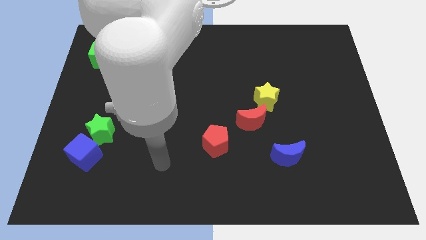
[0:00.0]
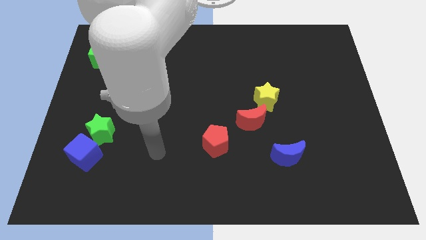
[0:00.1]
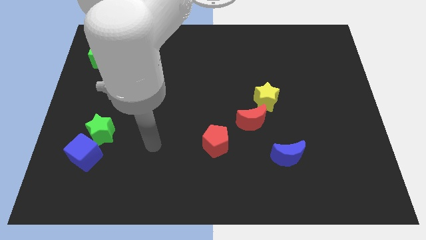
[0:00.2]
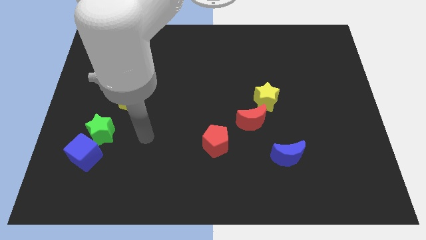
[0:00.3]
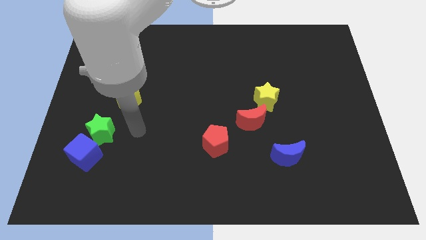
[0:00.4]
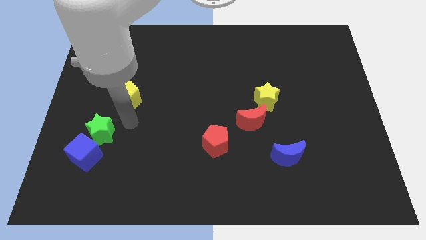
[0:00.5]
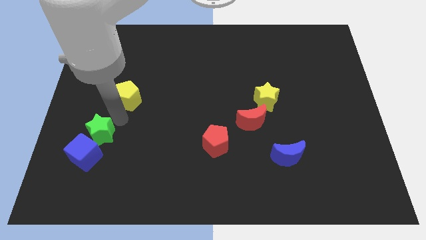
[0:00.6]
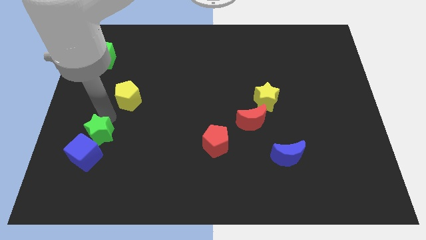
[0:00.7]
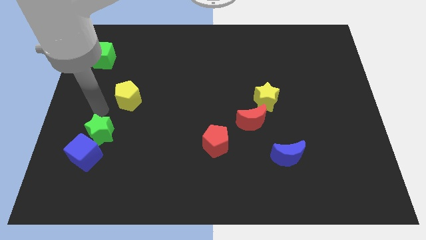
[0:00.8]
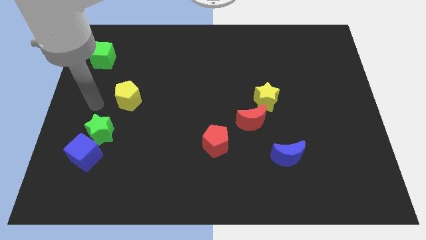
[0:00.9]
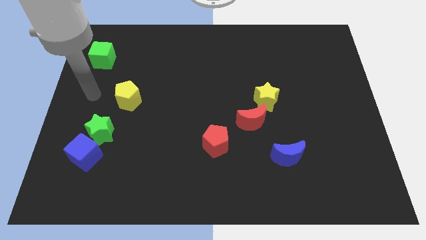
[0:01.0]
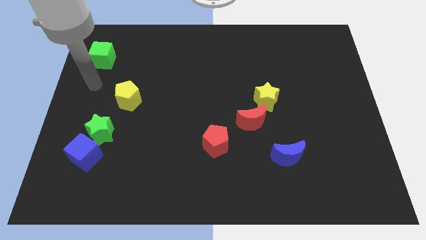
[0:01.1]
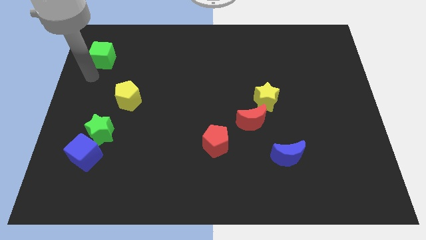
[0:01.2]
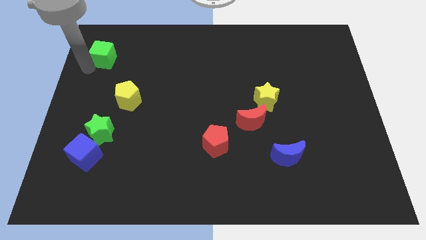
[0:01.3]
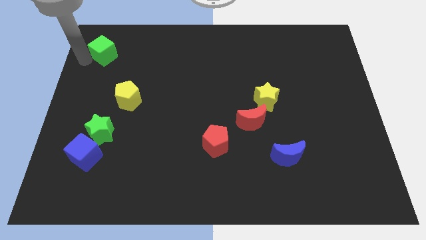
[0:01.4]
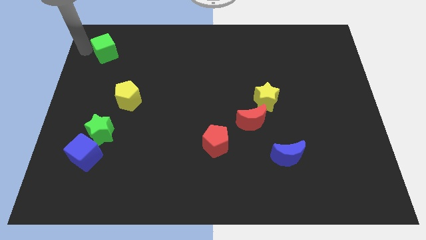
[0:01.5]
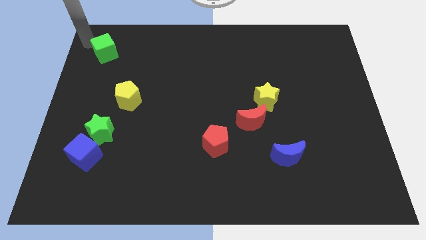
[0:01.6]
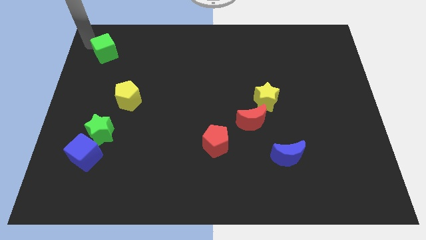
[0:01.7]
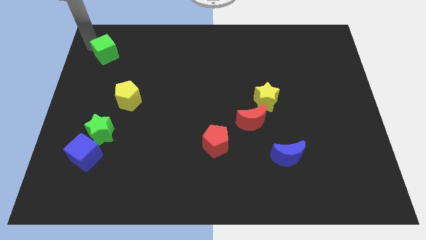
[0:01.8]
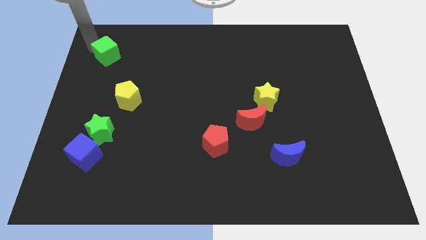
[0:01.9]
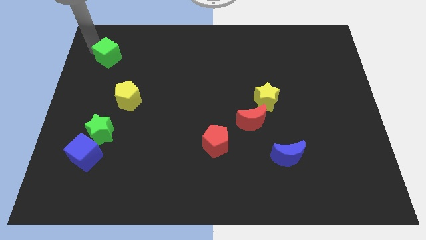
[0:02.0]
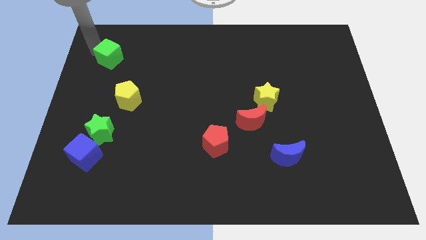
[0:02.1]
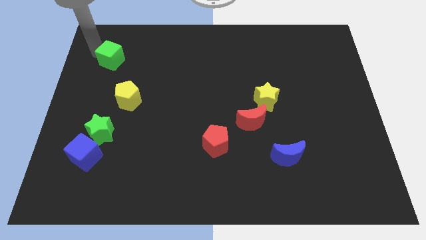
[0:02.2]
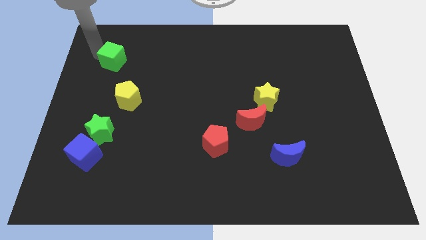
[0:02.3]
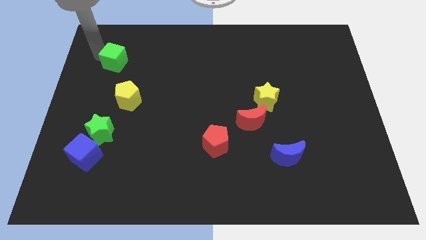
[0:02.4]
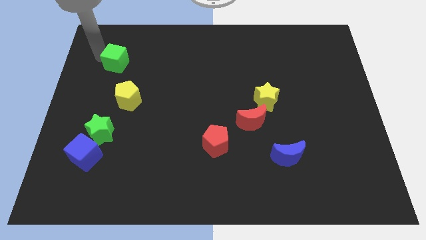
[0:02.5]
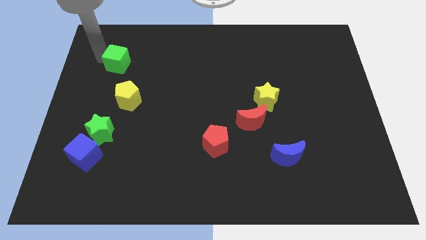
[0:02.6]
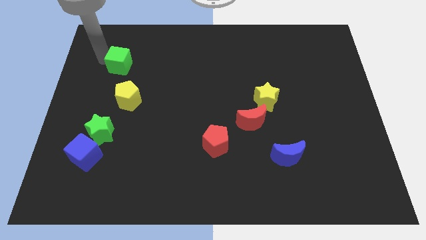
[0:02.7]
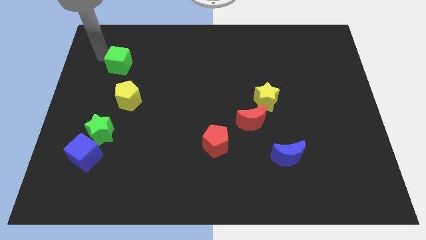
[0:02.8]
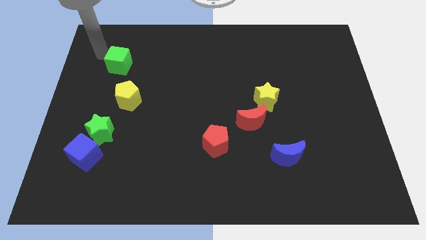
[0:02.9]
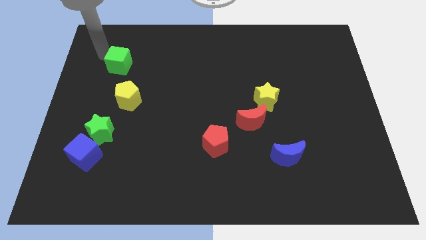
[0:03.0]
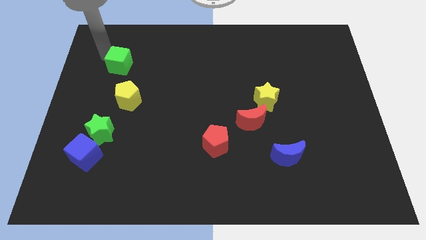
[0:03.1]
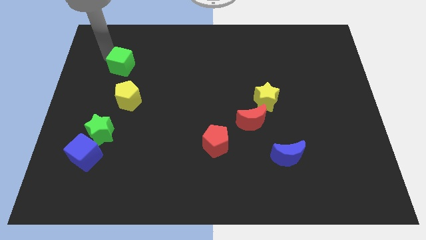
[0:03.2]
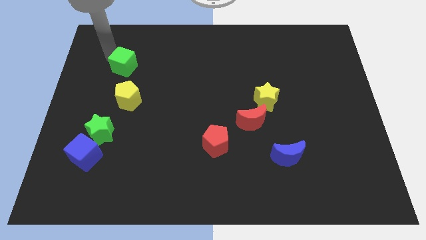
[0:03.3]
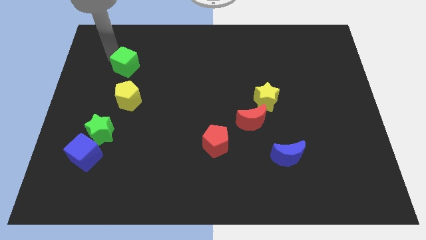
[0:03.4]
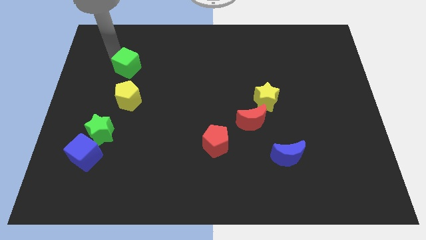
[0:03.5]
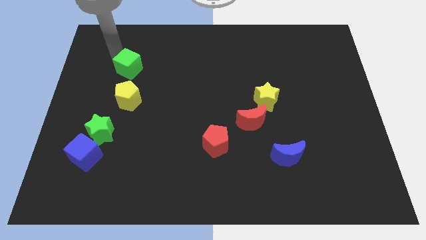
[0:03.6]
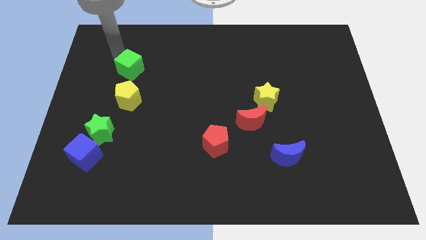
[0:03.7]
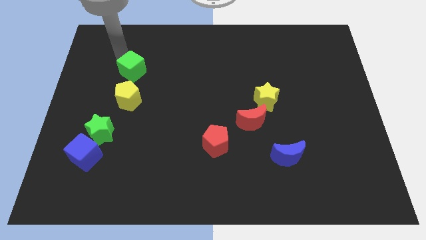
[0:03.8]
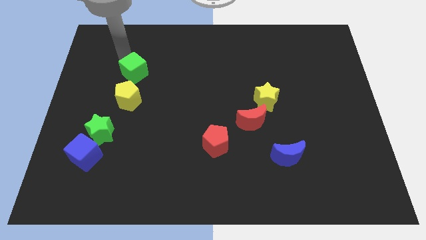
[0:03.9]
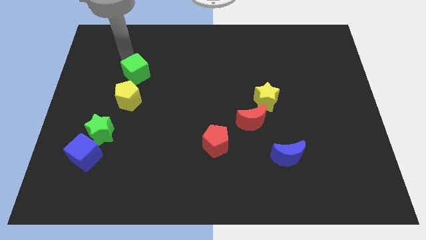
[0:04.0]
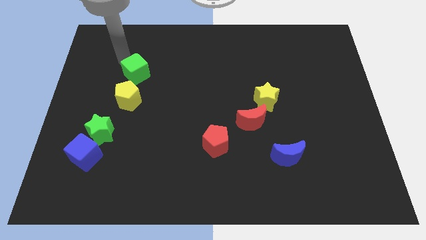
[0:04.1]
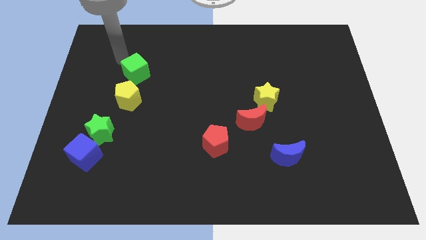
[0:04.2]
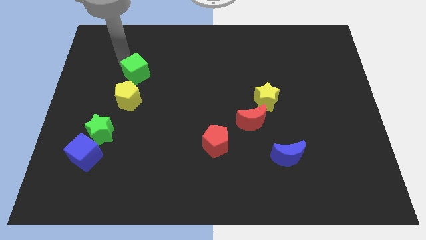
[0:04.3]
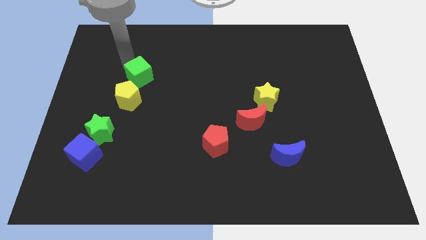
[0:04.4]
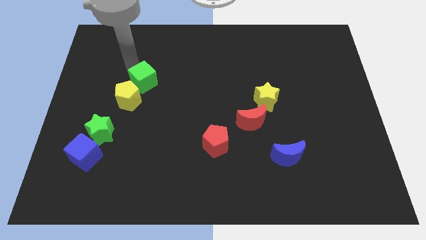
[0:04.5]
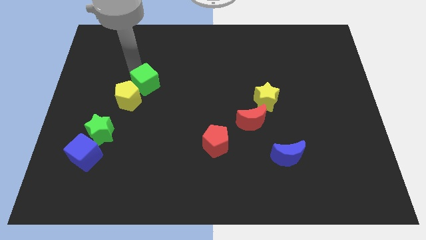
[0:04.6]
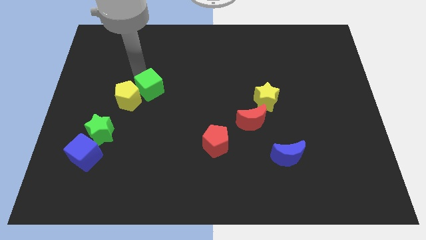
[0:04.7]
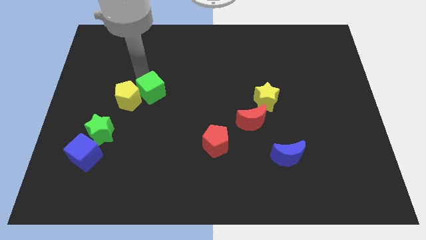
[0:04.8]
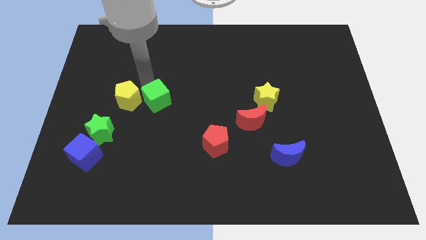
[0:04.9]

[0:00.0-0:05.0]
slide the green cube down and then to the right

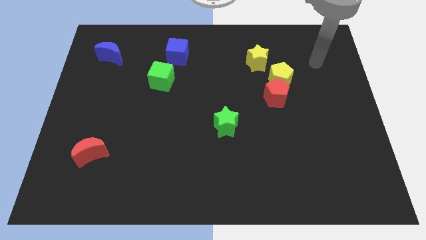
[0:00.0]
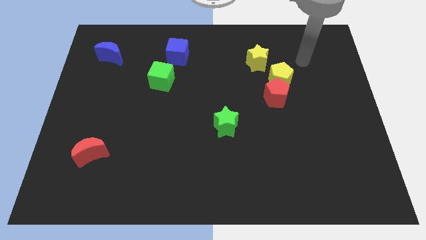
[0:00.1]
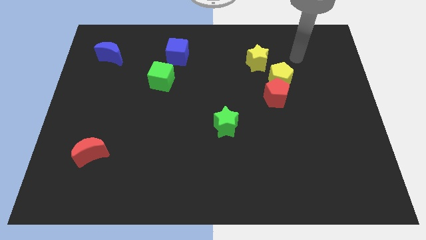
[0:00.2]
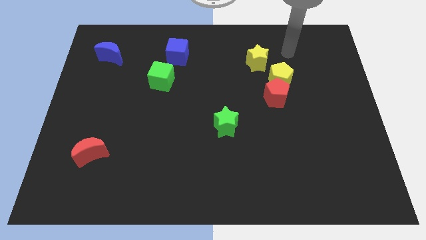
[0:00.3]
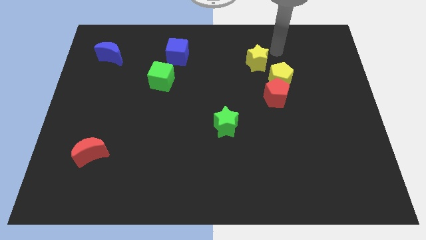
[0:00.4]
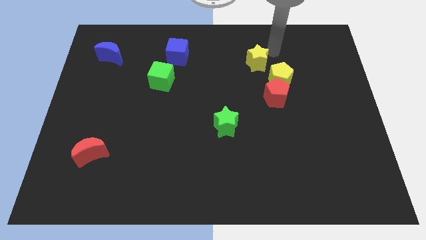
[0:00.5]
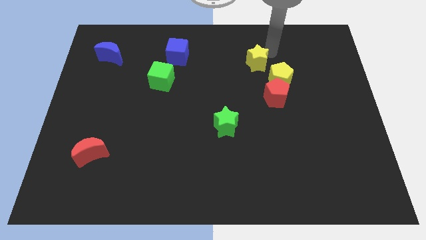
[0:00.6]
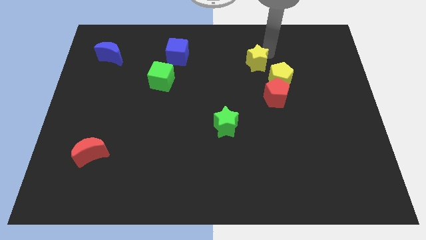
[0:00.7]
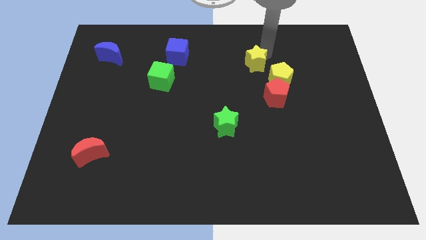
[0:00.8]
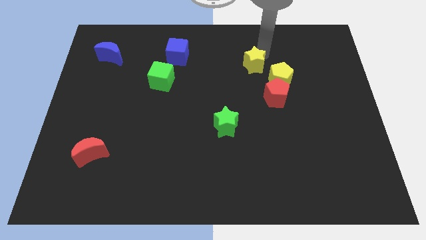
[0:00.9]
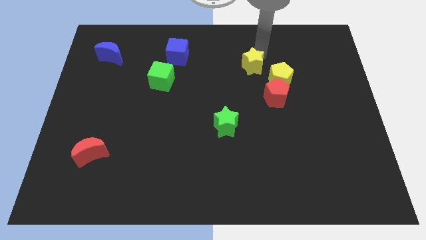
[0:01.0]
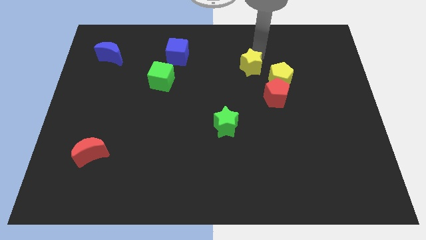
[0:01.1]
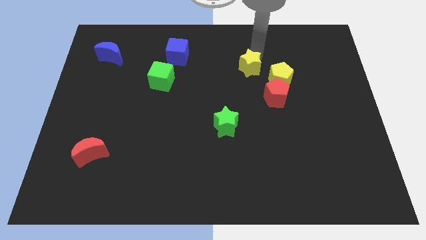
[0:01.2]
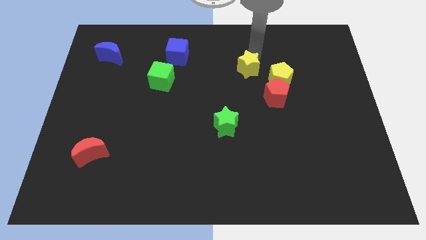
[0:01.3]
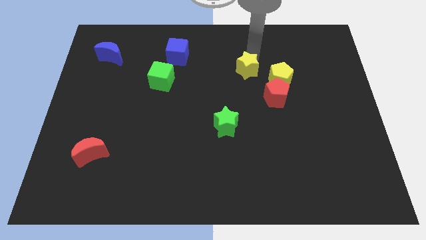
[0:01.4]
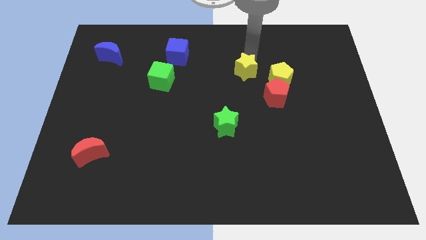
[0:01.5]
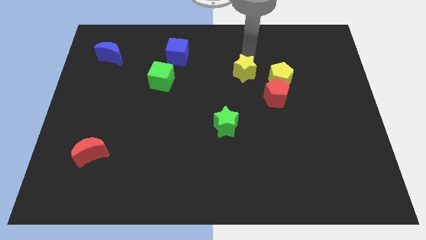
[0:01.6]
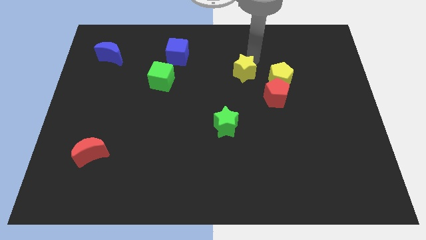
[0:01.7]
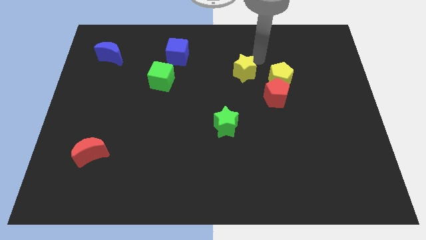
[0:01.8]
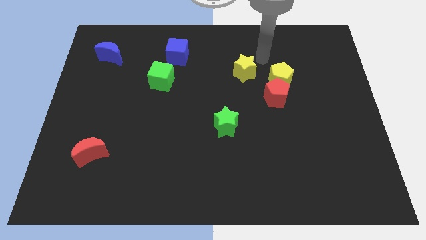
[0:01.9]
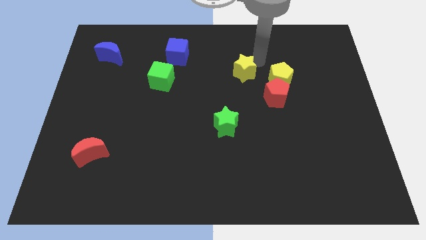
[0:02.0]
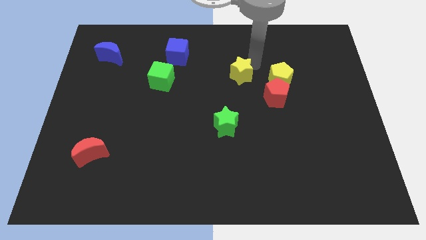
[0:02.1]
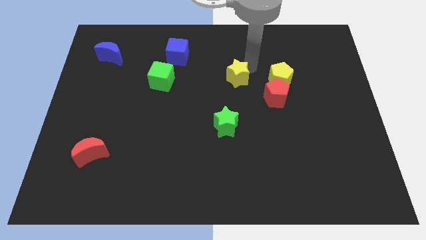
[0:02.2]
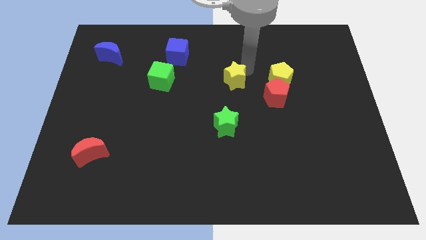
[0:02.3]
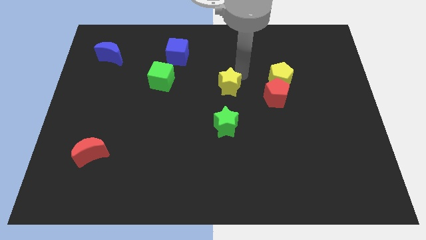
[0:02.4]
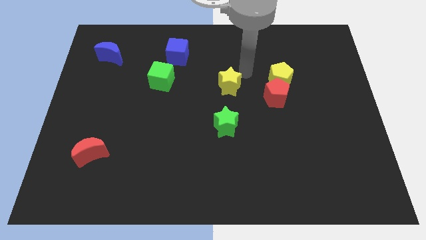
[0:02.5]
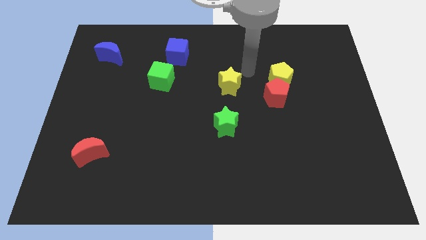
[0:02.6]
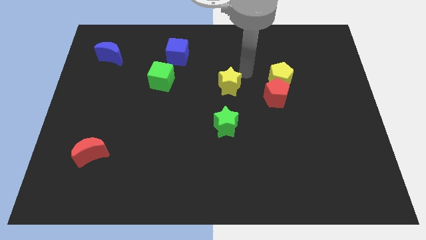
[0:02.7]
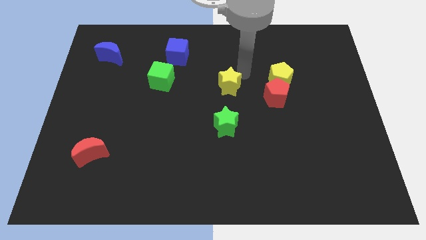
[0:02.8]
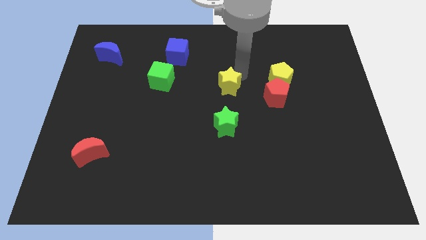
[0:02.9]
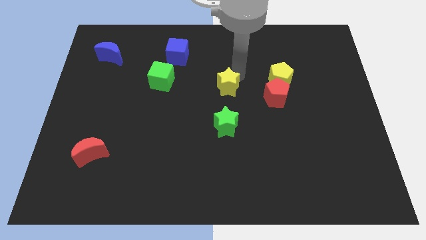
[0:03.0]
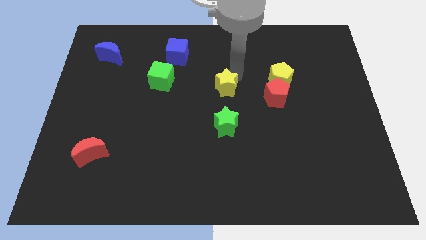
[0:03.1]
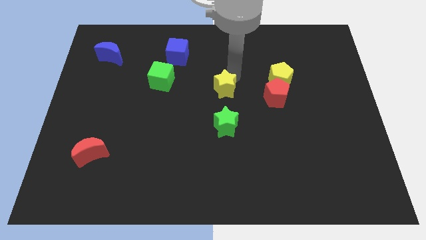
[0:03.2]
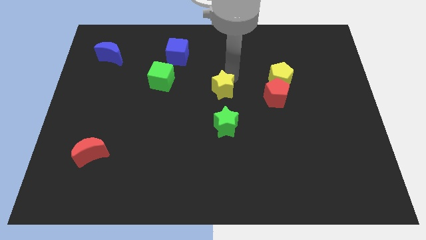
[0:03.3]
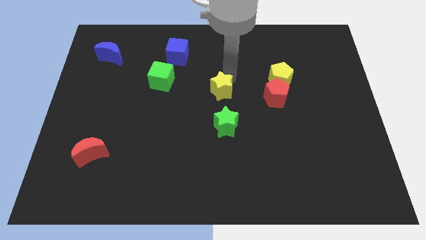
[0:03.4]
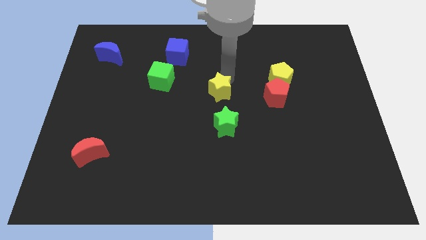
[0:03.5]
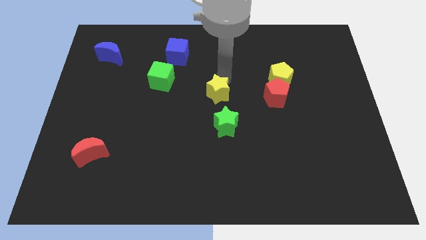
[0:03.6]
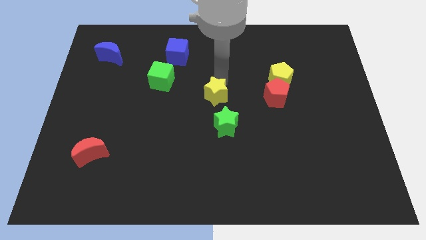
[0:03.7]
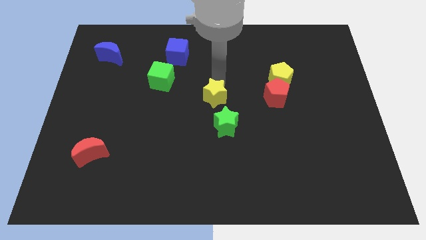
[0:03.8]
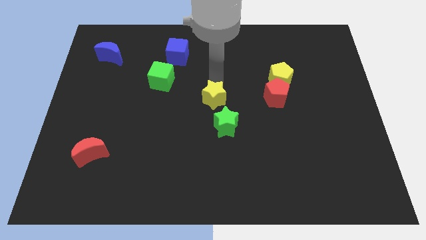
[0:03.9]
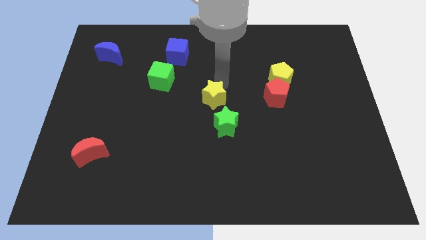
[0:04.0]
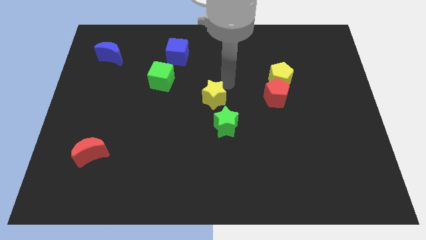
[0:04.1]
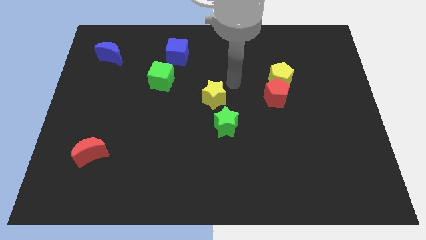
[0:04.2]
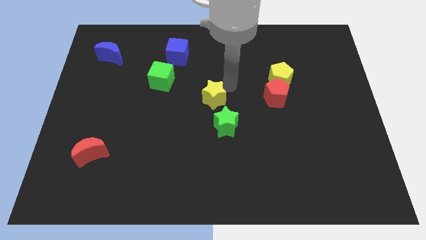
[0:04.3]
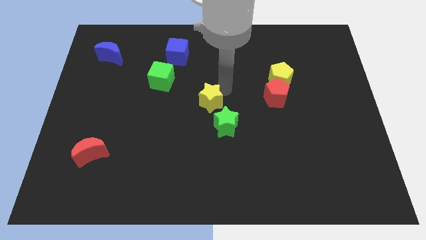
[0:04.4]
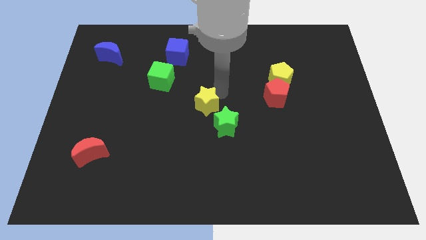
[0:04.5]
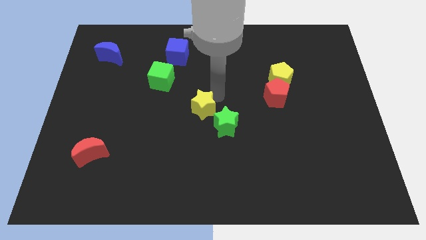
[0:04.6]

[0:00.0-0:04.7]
push the yellow star downwards and then to the left
